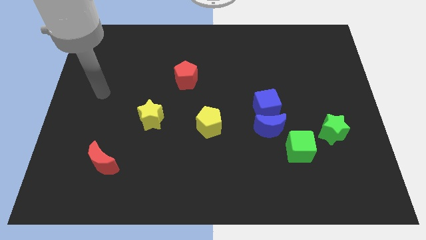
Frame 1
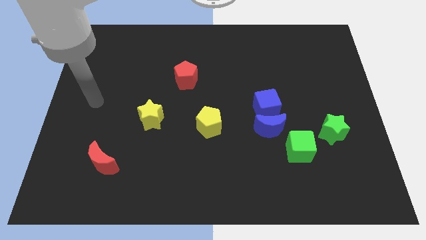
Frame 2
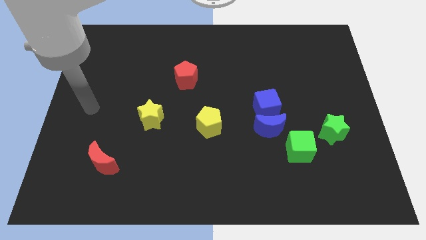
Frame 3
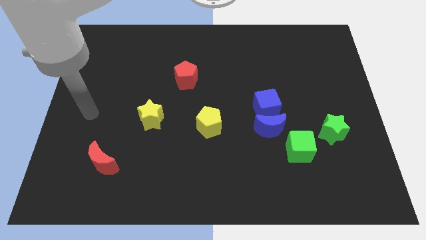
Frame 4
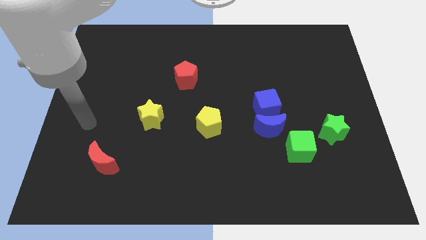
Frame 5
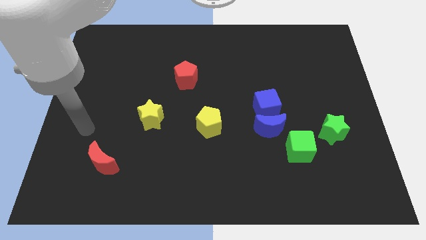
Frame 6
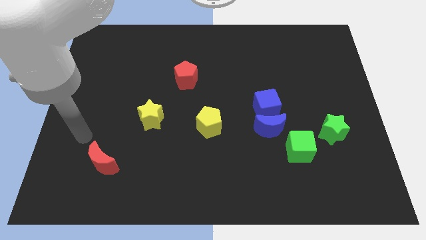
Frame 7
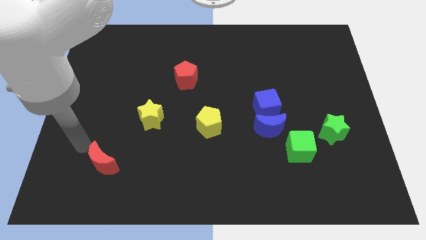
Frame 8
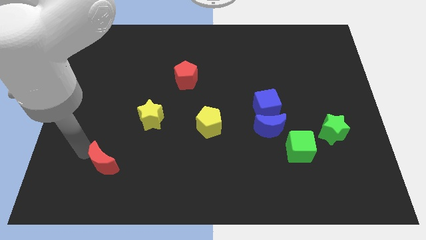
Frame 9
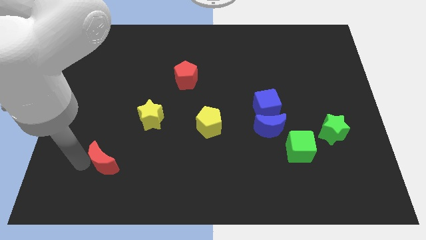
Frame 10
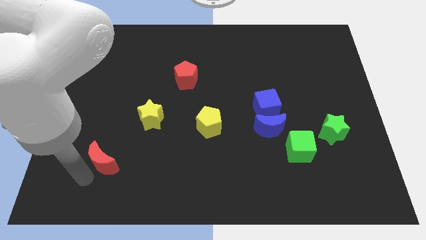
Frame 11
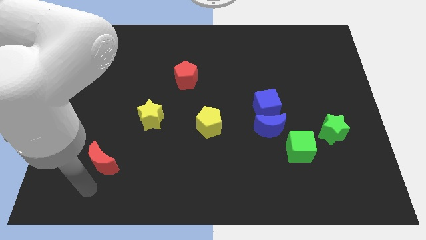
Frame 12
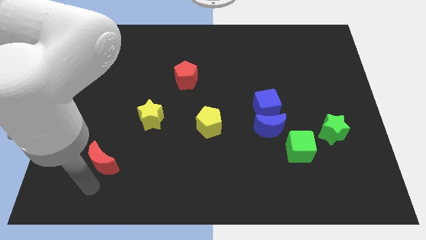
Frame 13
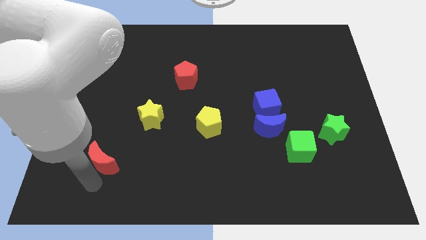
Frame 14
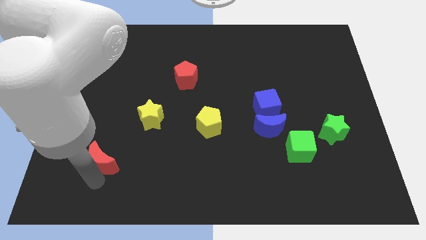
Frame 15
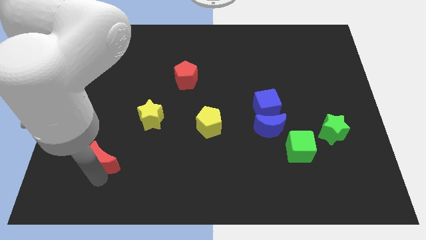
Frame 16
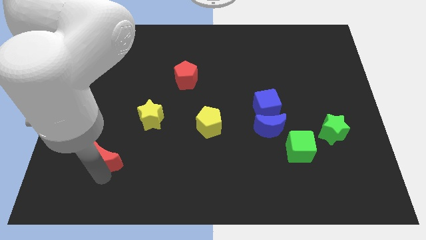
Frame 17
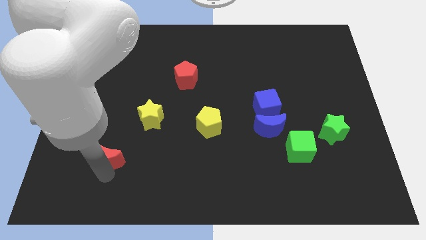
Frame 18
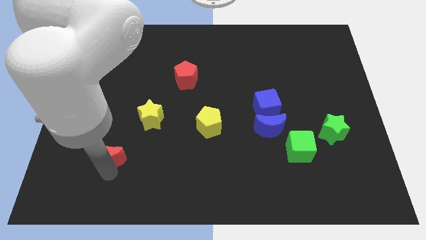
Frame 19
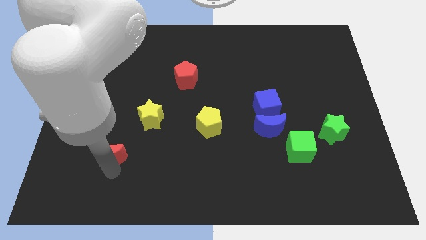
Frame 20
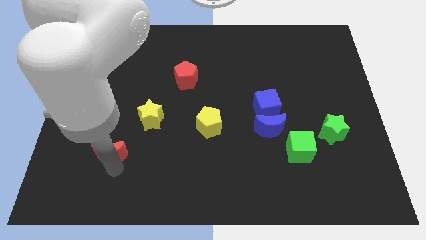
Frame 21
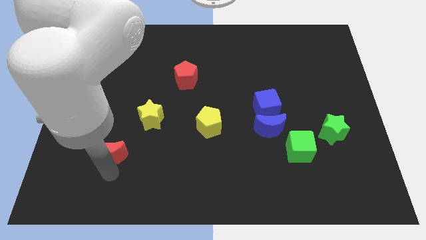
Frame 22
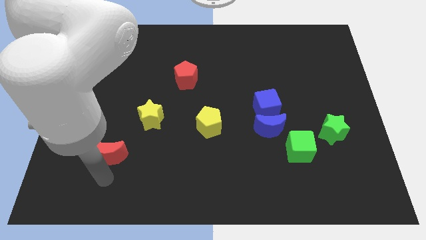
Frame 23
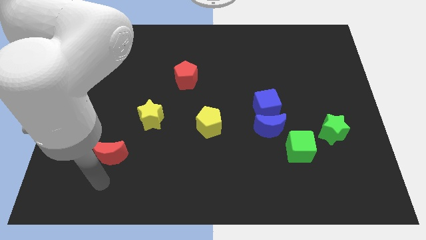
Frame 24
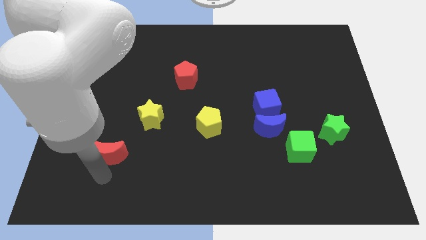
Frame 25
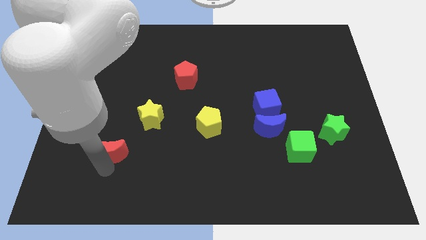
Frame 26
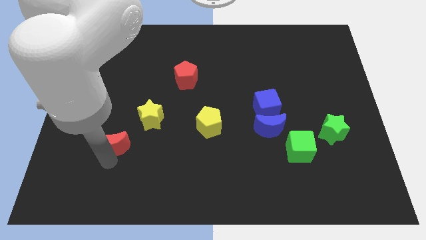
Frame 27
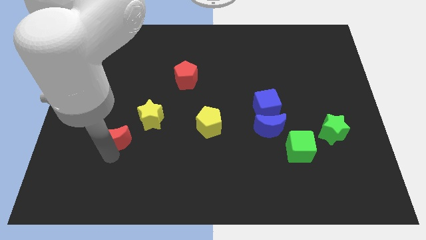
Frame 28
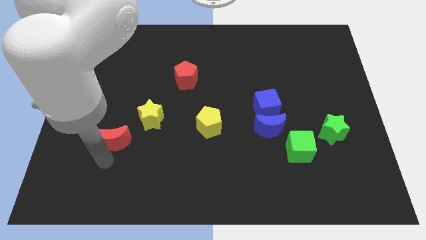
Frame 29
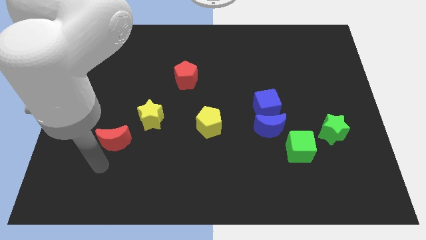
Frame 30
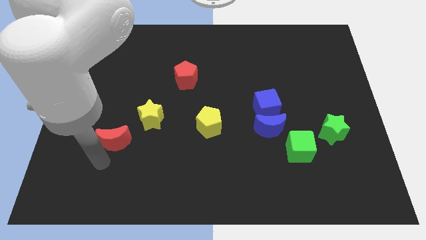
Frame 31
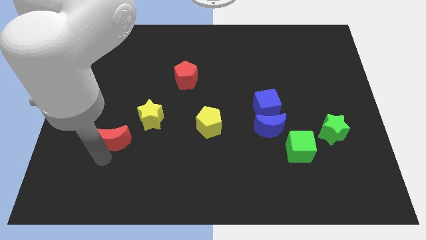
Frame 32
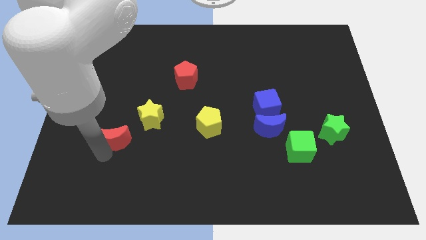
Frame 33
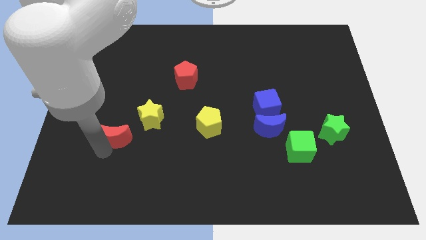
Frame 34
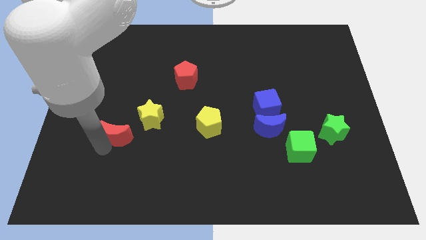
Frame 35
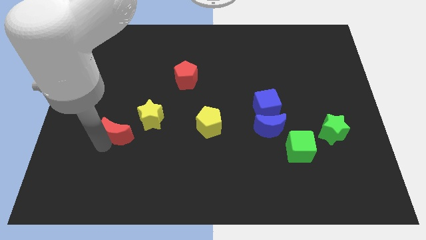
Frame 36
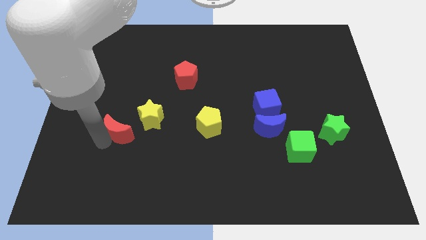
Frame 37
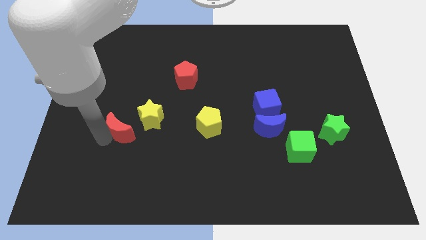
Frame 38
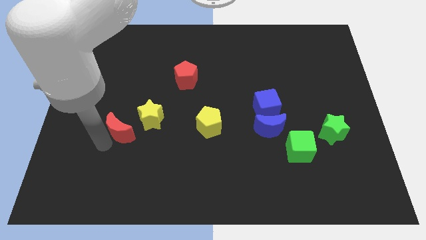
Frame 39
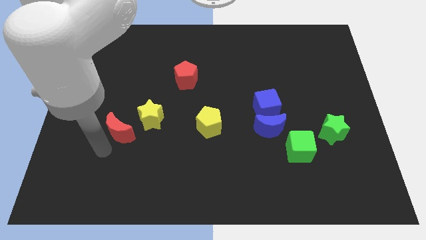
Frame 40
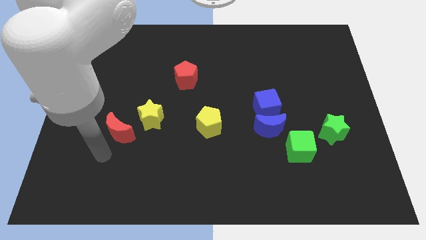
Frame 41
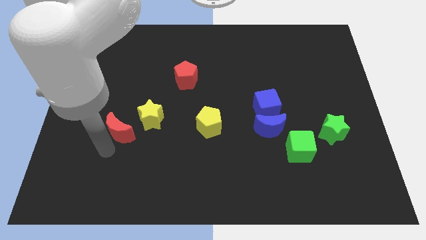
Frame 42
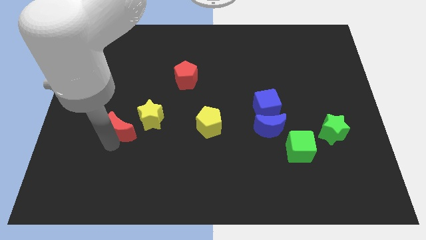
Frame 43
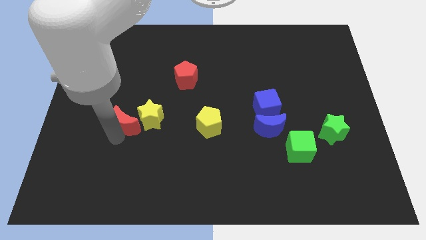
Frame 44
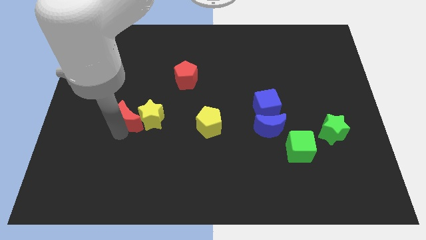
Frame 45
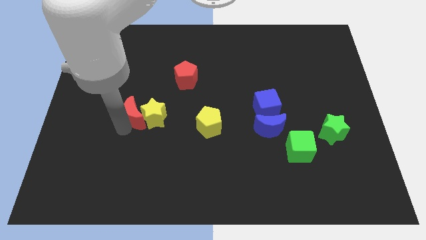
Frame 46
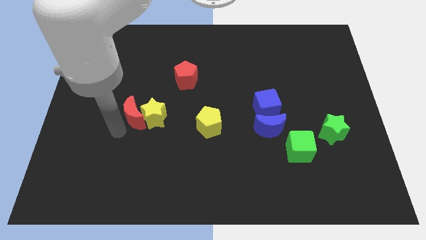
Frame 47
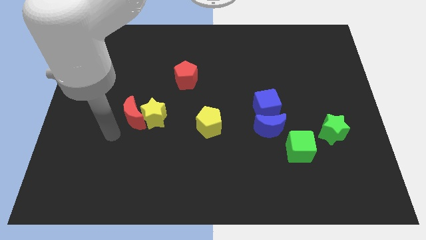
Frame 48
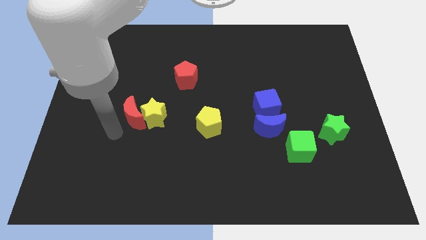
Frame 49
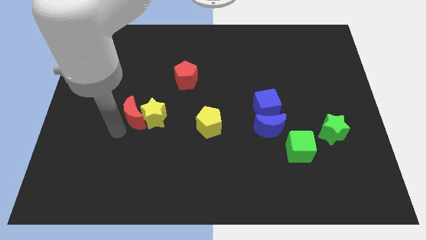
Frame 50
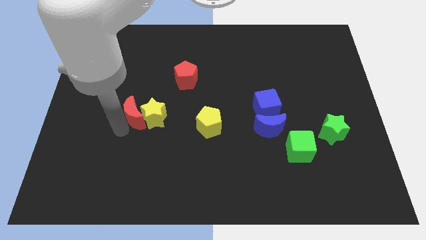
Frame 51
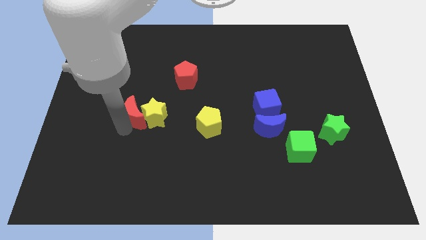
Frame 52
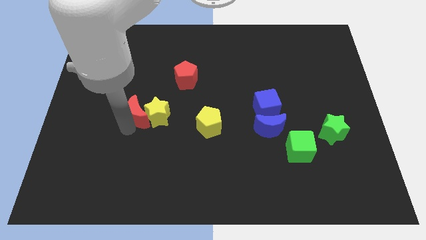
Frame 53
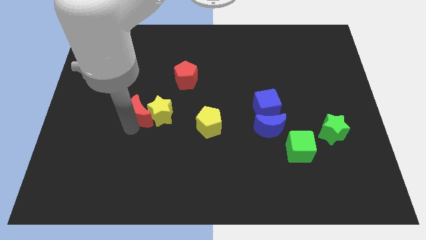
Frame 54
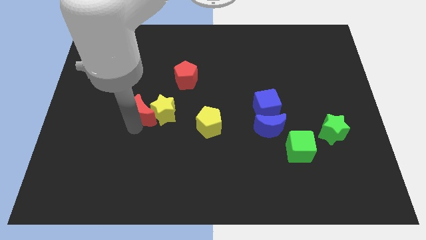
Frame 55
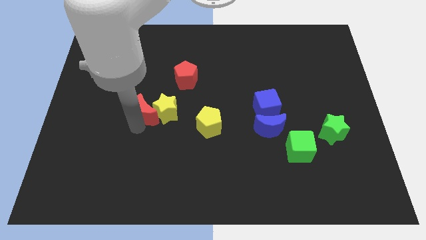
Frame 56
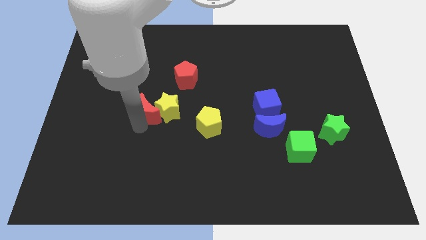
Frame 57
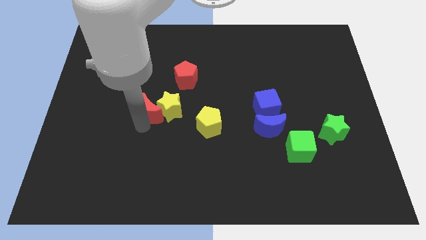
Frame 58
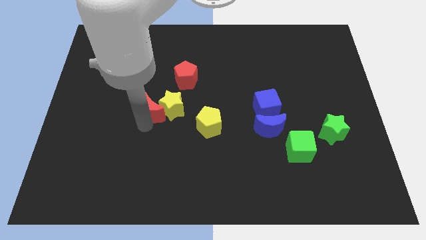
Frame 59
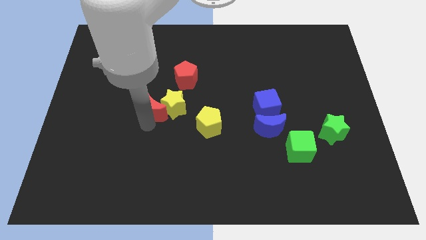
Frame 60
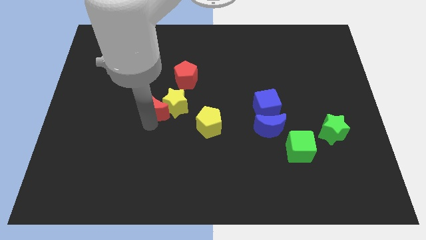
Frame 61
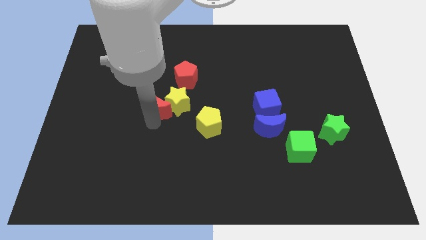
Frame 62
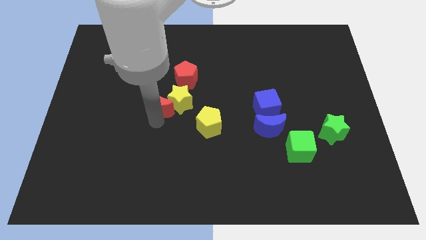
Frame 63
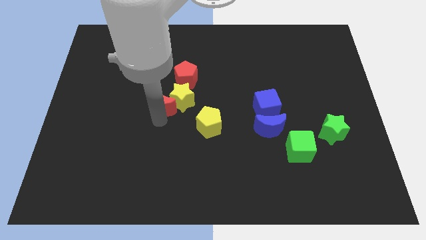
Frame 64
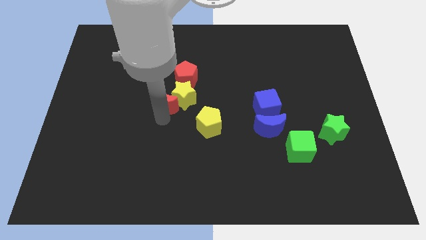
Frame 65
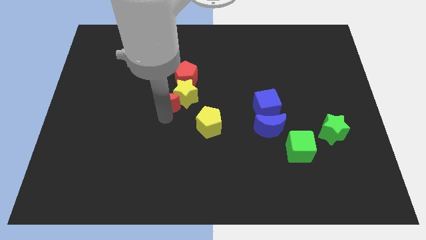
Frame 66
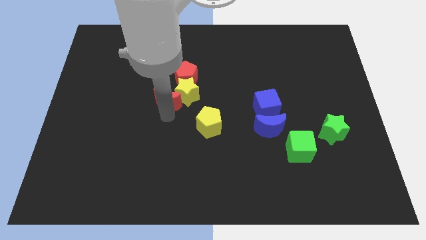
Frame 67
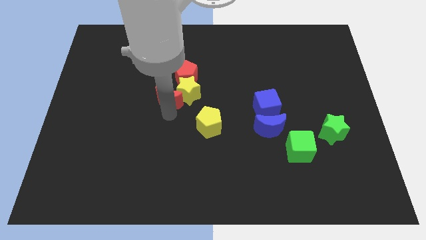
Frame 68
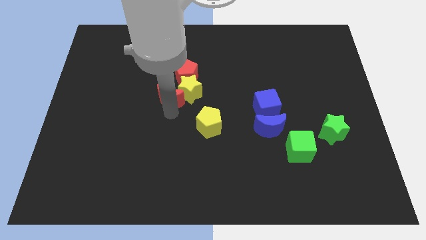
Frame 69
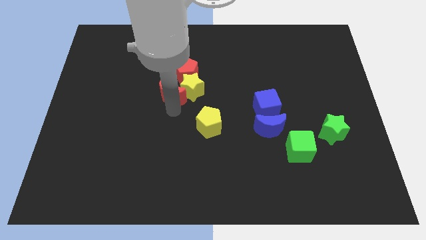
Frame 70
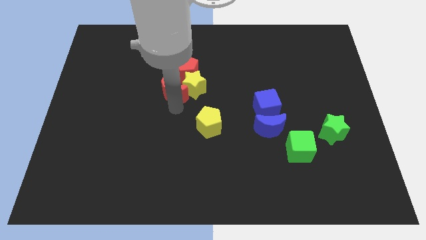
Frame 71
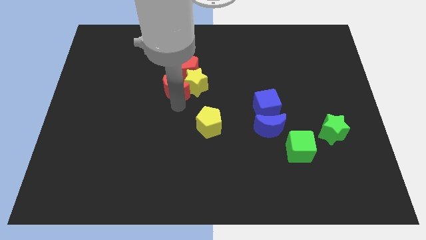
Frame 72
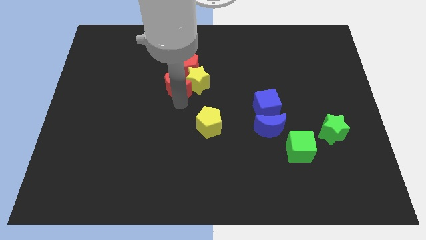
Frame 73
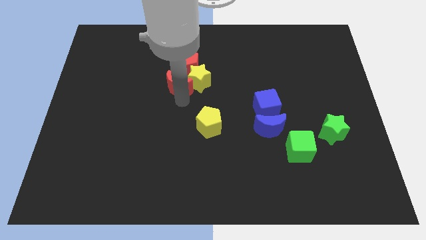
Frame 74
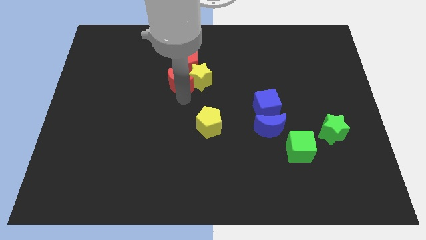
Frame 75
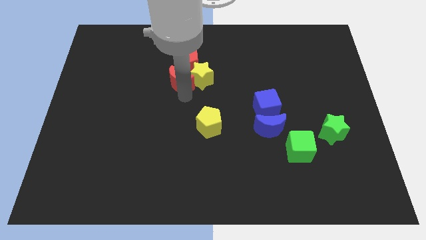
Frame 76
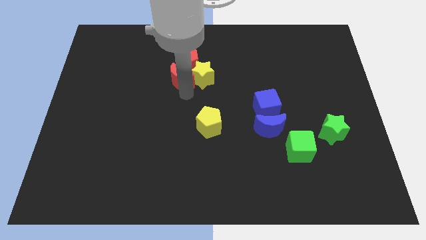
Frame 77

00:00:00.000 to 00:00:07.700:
put the red moon to the red pentagon
